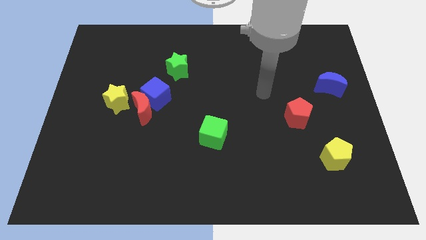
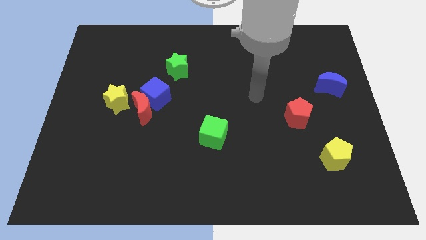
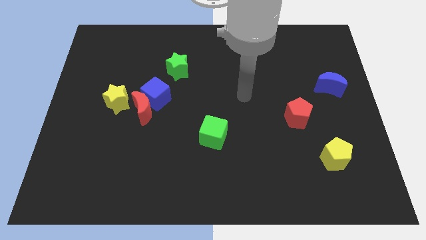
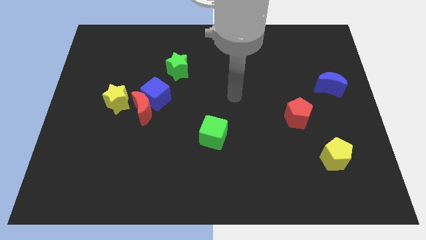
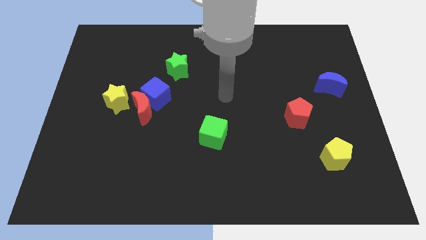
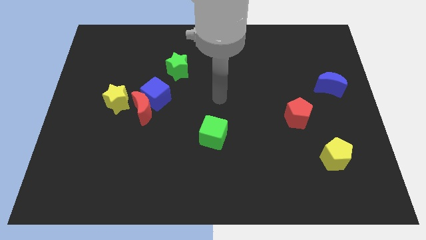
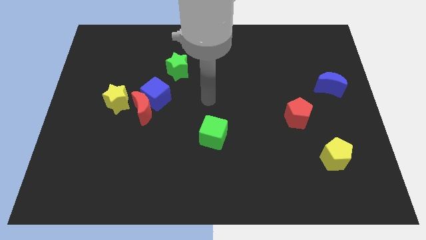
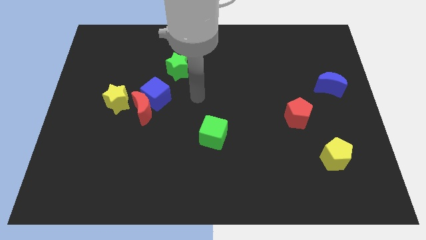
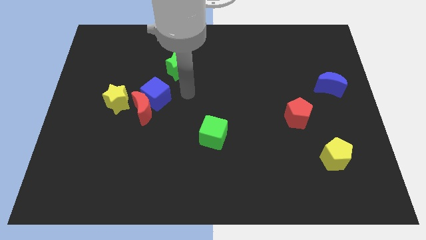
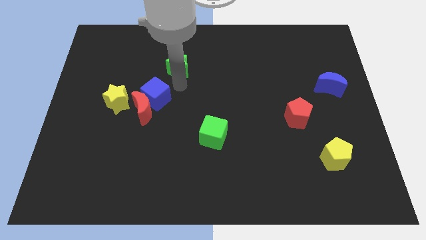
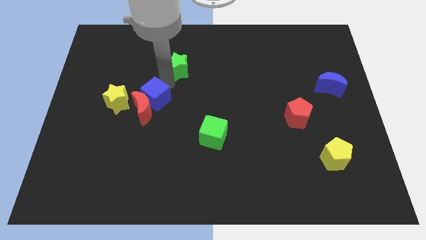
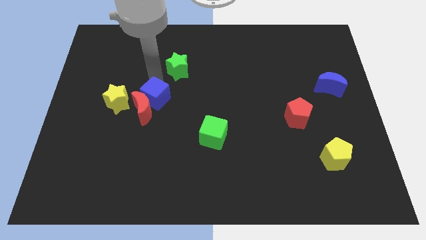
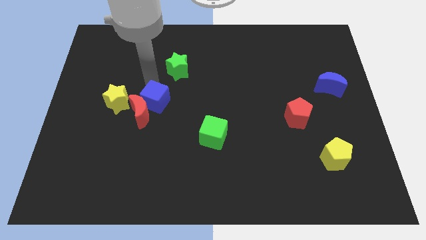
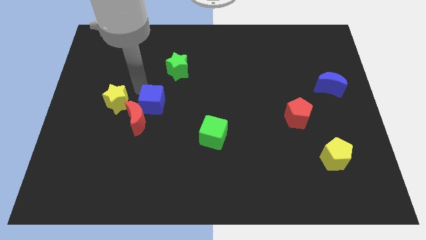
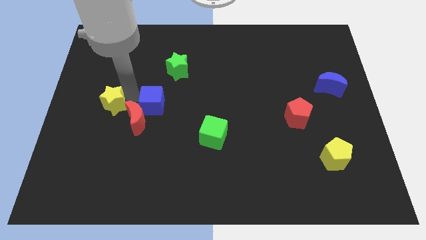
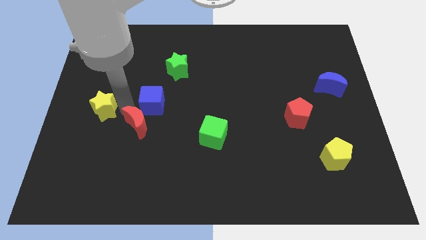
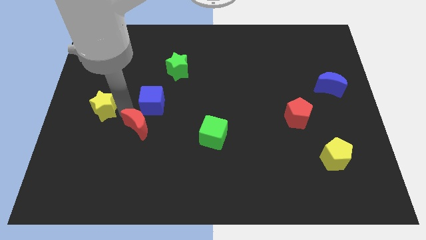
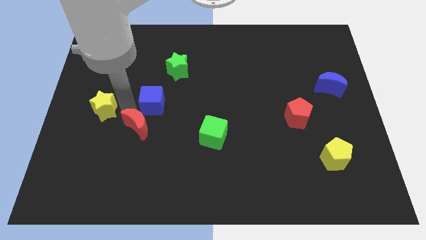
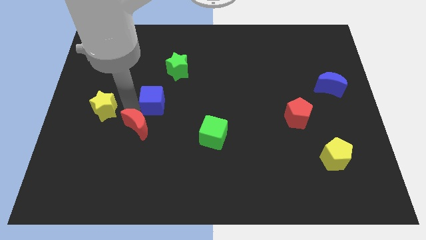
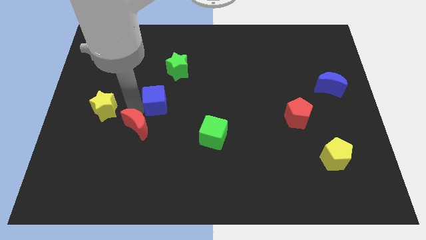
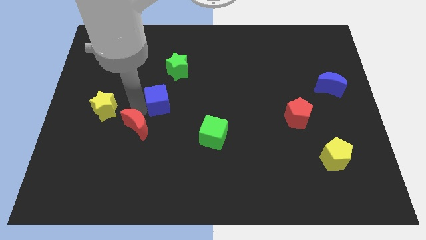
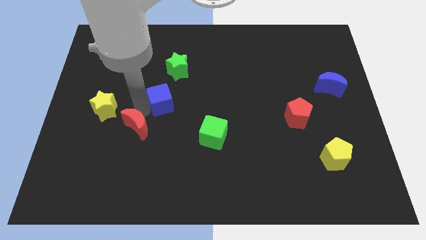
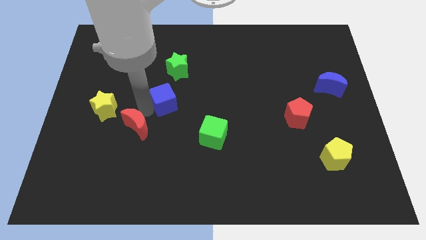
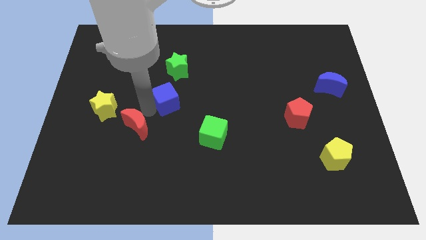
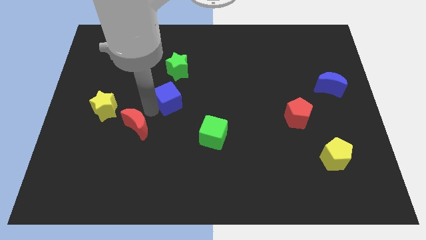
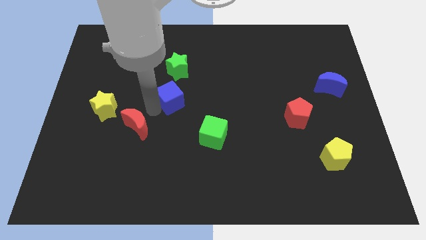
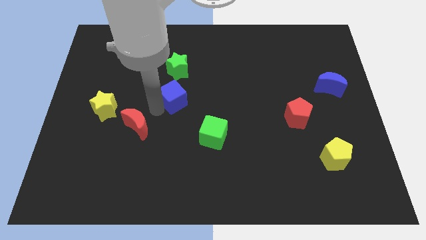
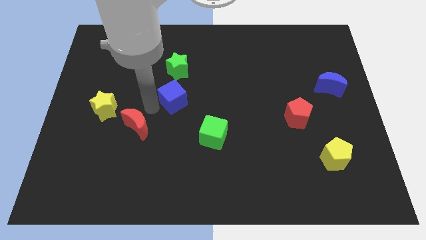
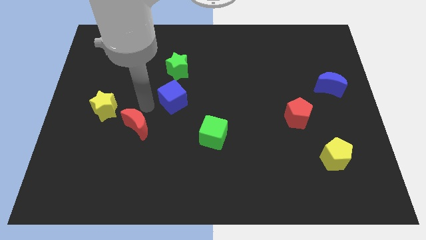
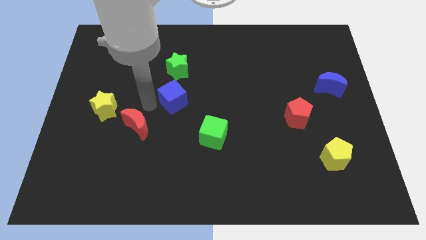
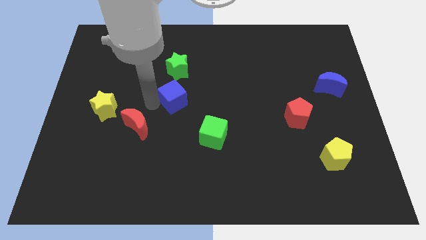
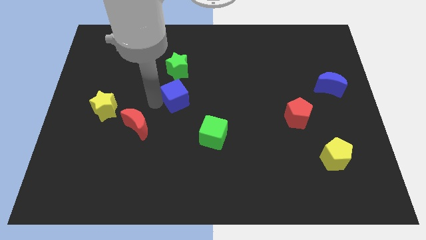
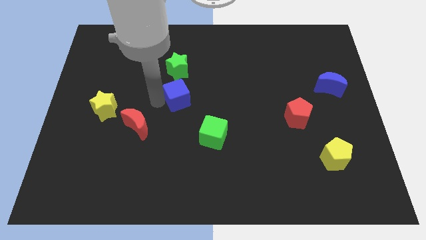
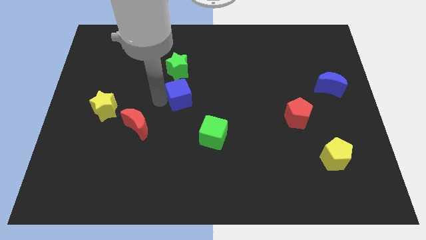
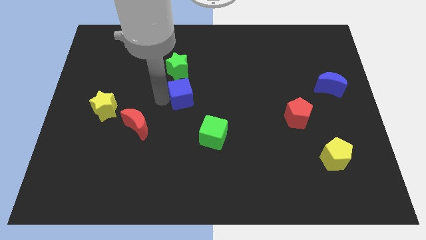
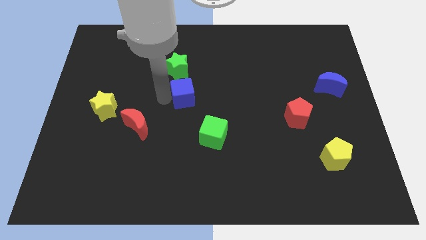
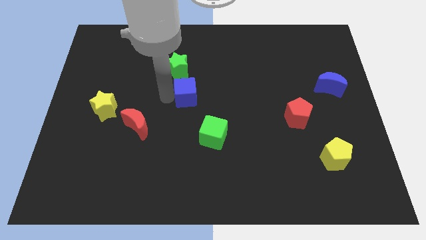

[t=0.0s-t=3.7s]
push the blue cube to the right a little

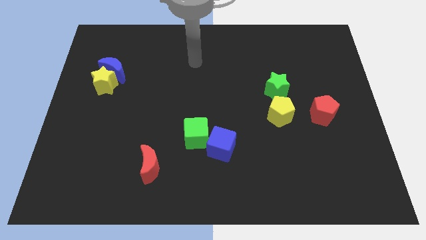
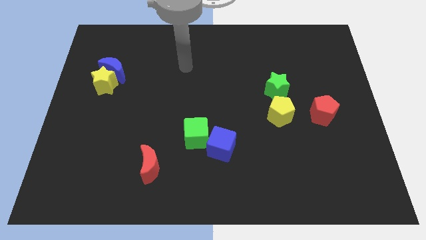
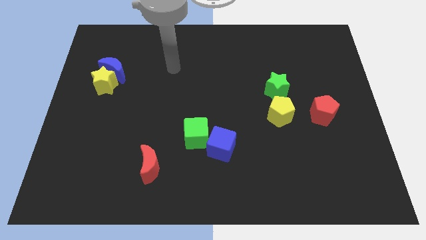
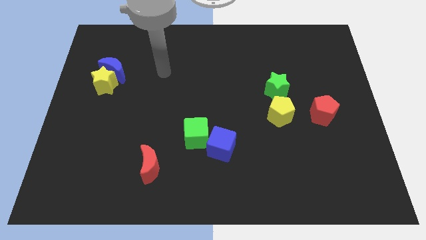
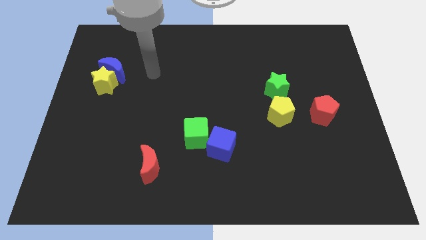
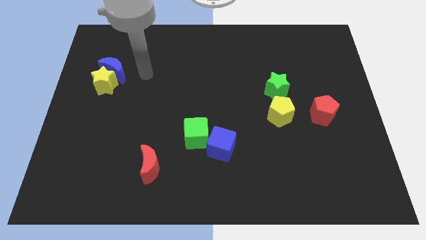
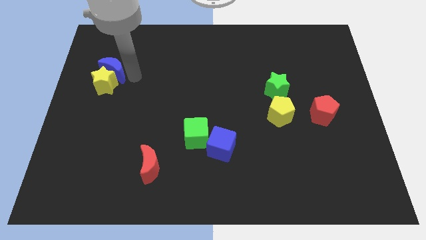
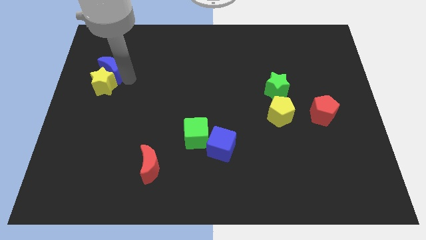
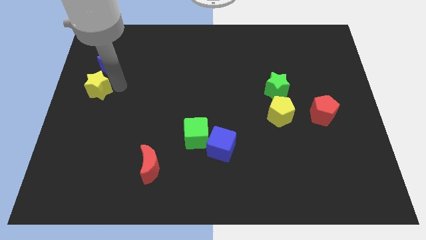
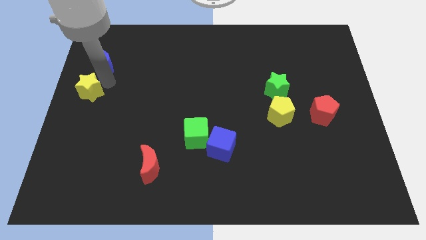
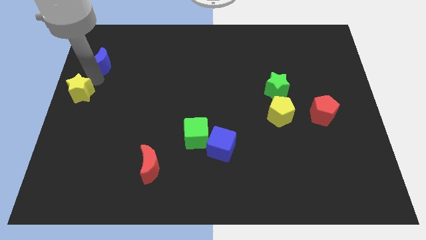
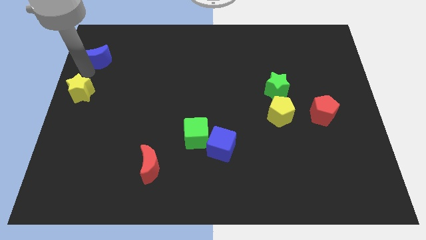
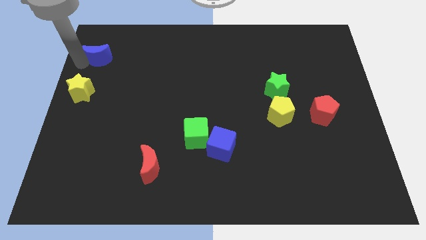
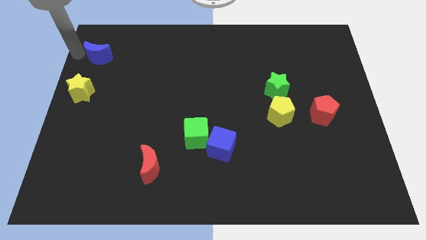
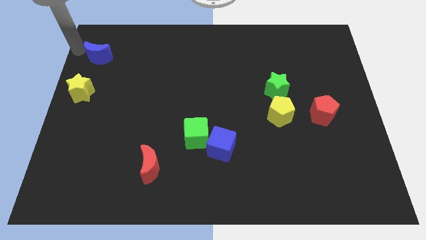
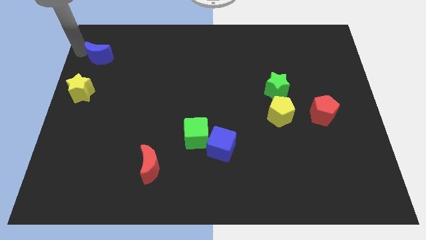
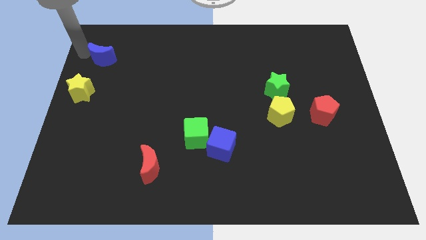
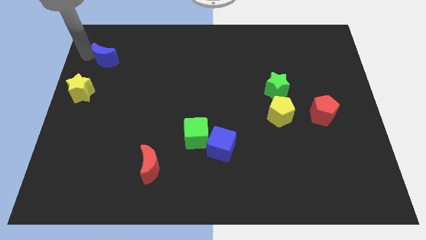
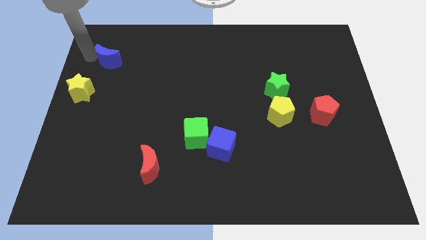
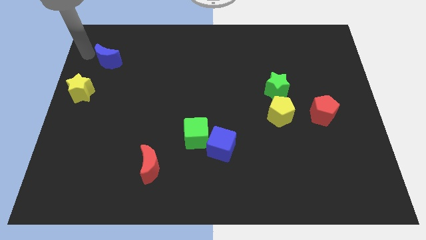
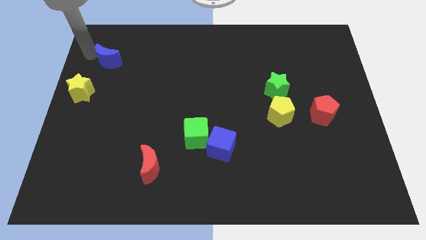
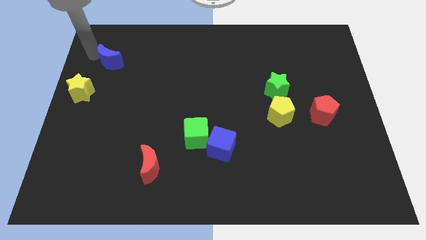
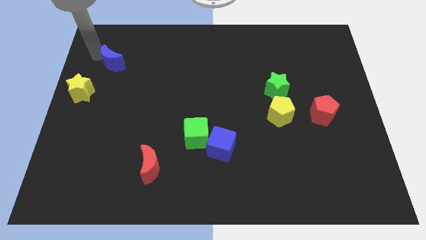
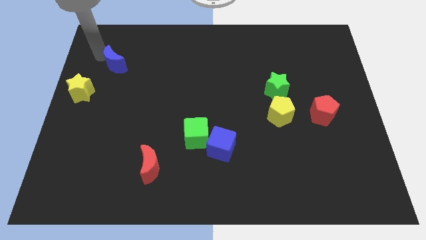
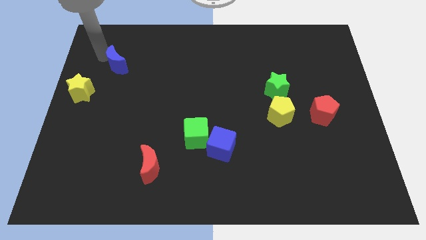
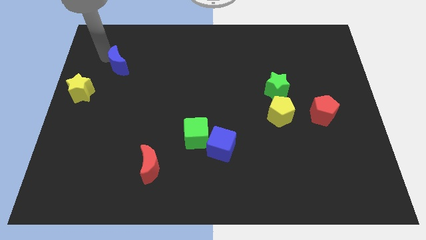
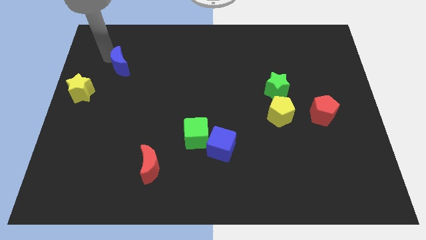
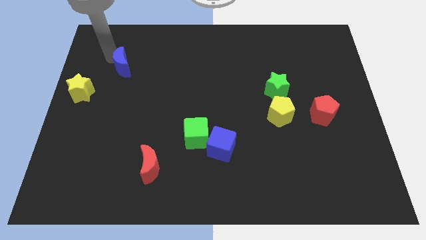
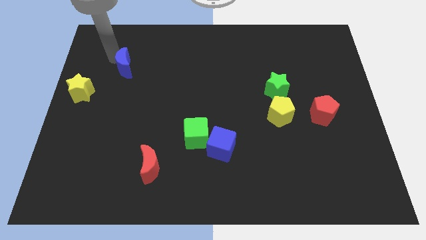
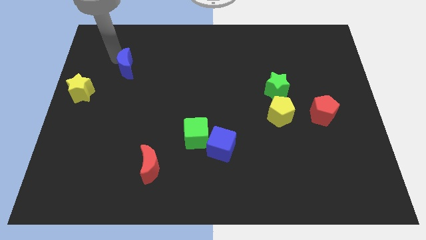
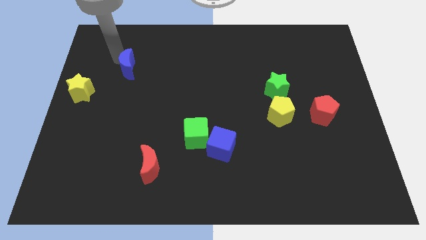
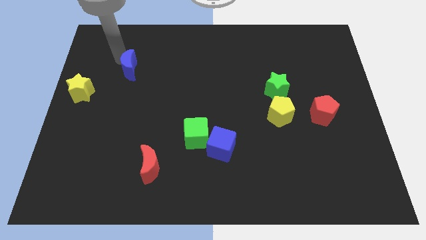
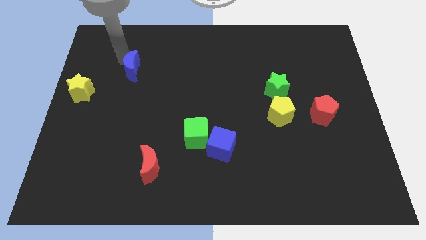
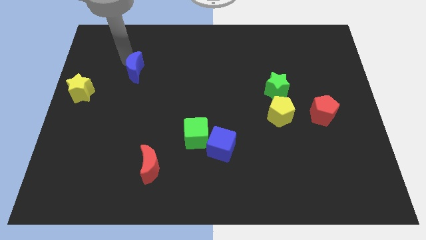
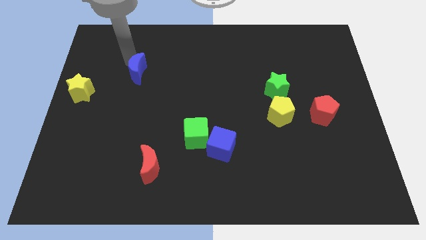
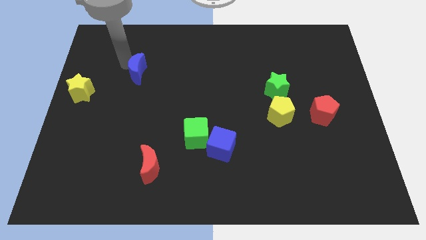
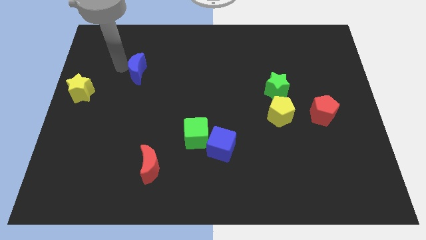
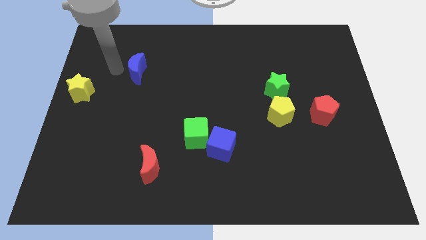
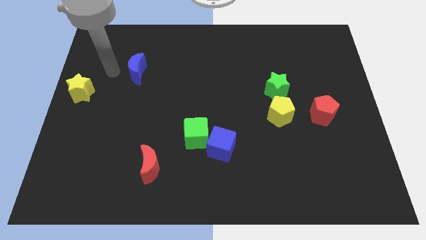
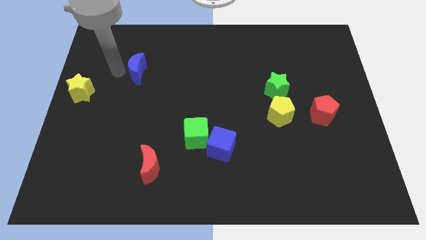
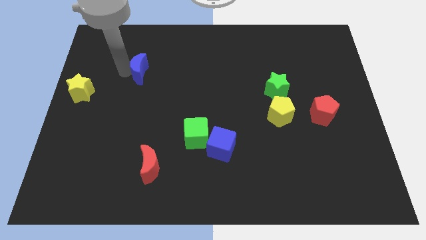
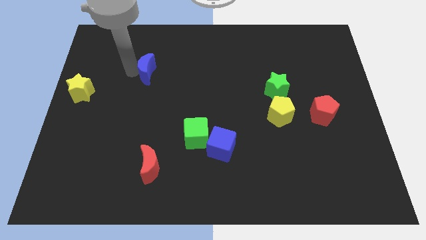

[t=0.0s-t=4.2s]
slide the blue moon to the right somewhat

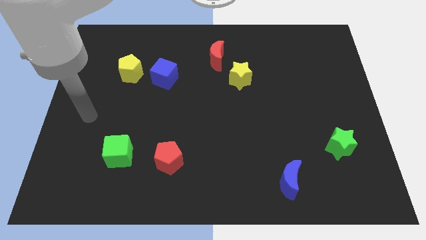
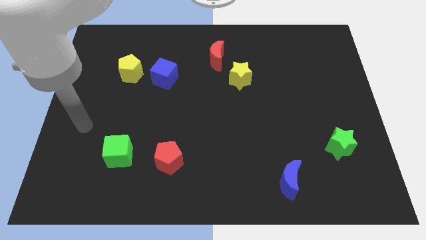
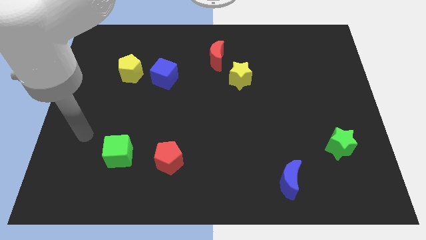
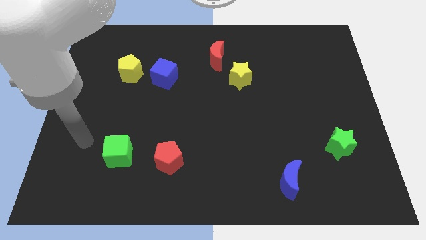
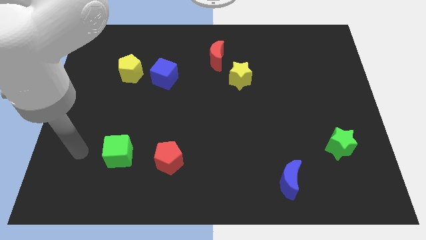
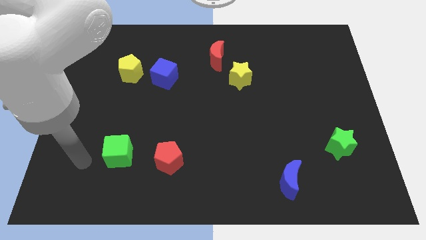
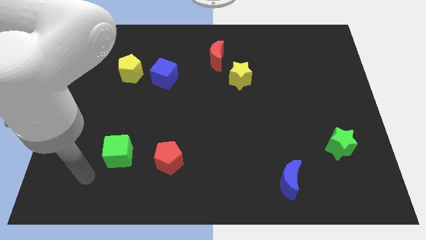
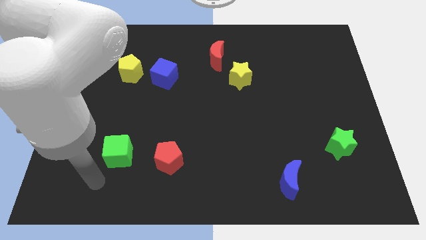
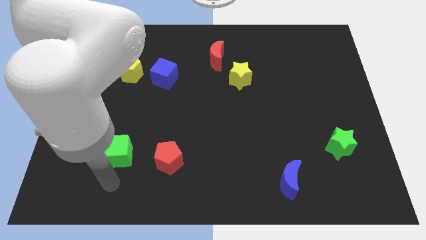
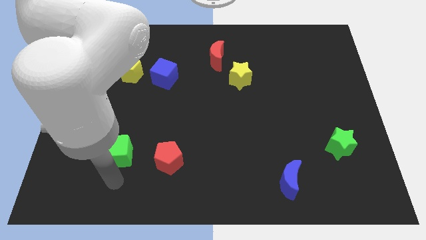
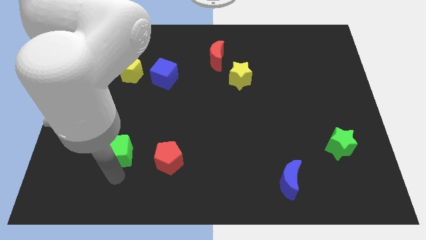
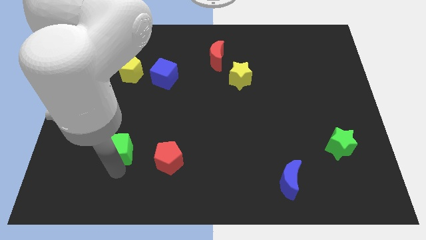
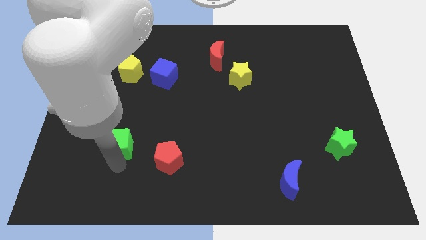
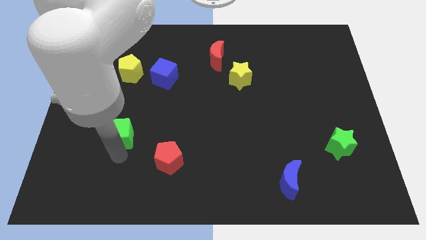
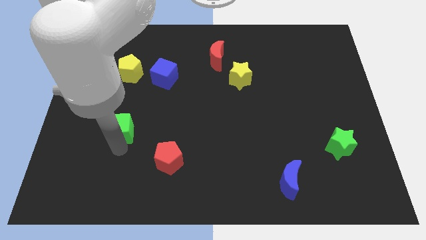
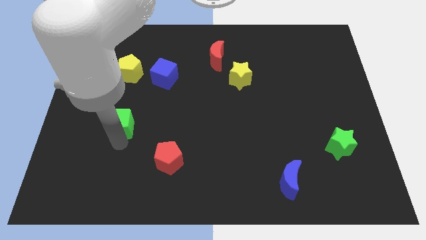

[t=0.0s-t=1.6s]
move the green cube a little bit upwards
